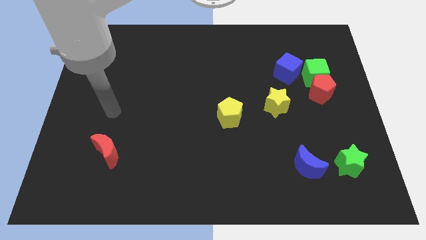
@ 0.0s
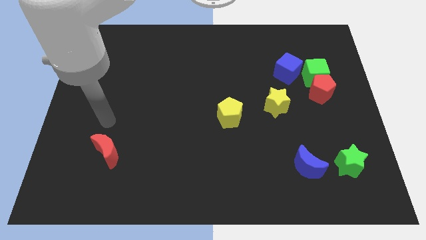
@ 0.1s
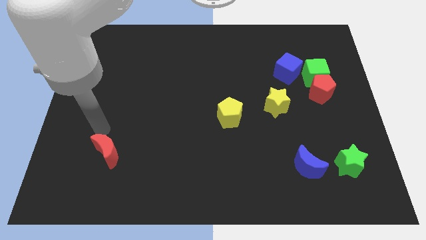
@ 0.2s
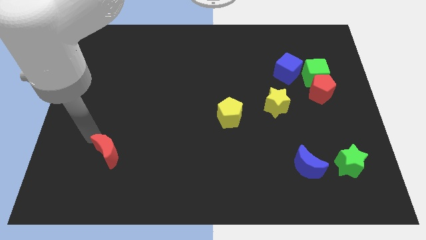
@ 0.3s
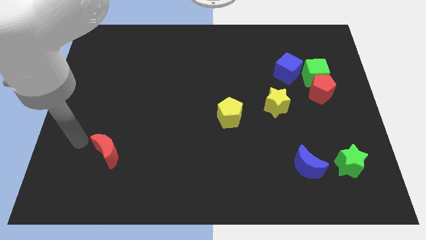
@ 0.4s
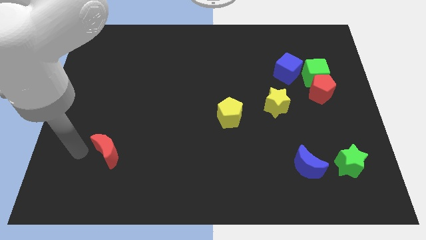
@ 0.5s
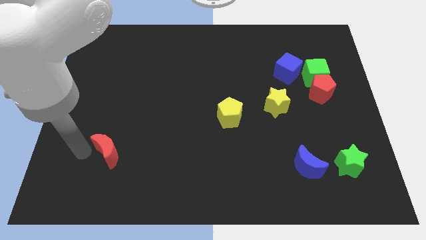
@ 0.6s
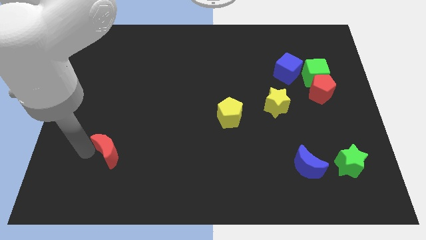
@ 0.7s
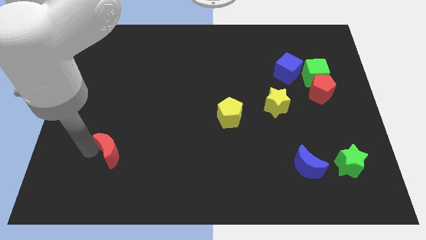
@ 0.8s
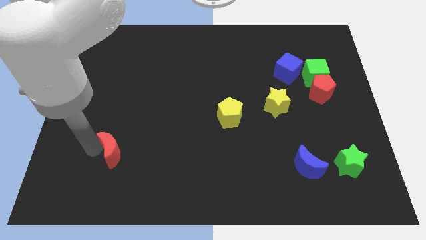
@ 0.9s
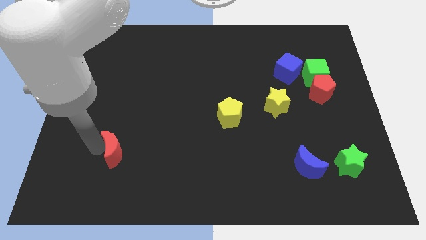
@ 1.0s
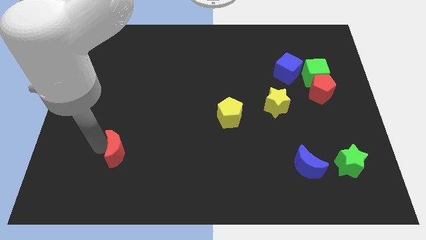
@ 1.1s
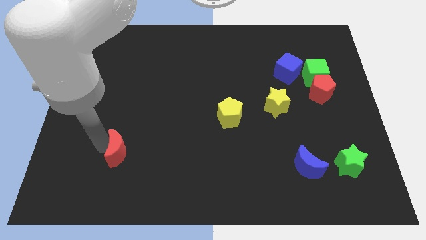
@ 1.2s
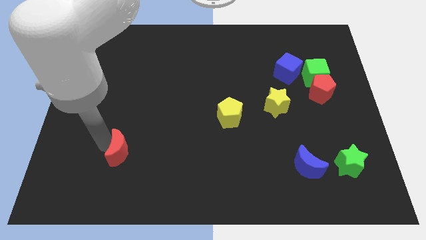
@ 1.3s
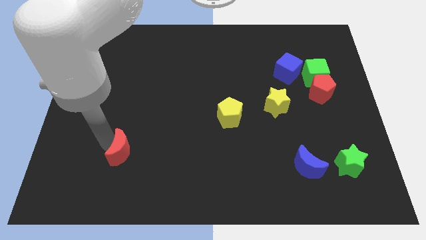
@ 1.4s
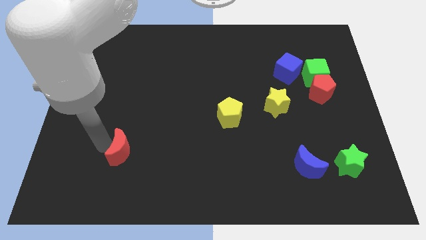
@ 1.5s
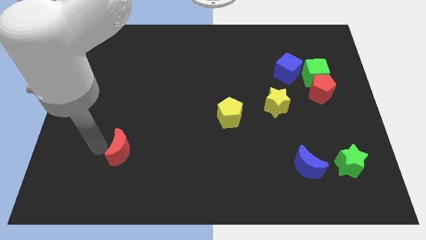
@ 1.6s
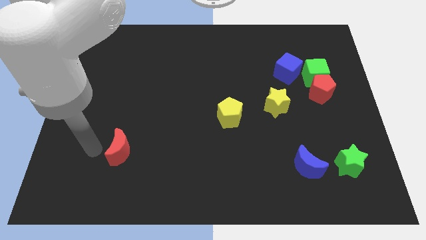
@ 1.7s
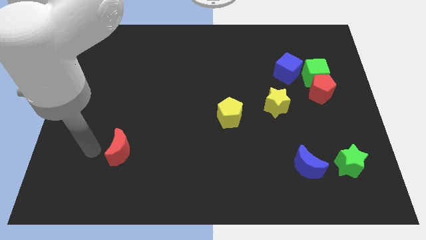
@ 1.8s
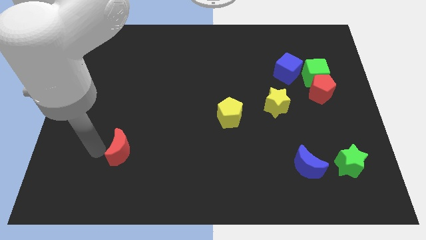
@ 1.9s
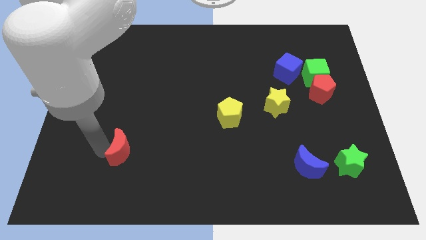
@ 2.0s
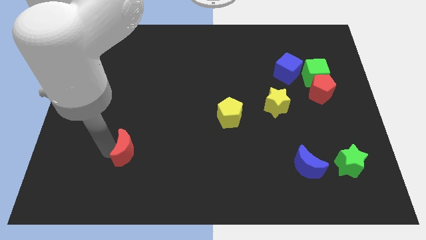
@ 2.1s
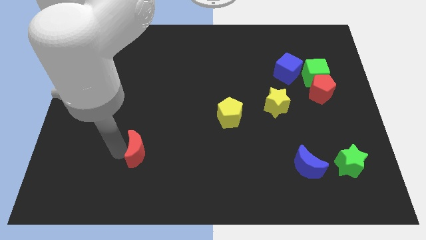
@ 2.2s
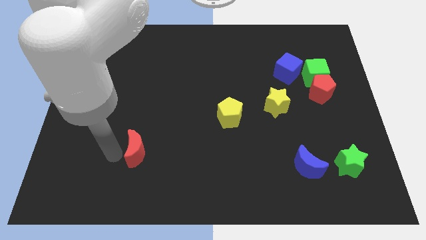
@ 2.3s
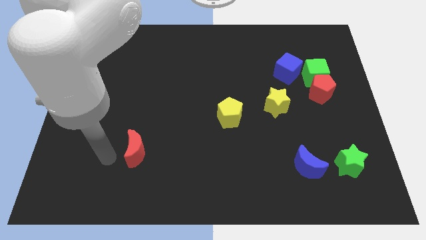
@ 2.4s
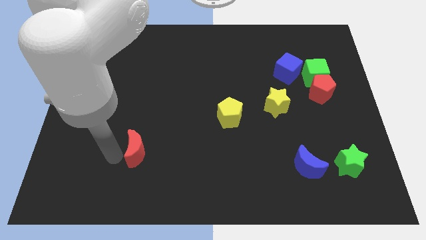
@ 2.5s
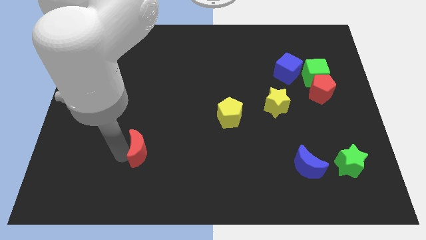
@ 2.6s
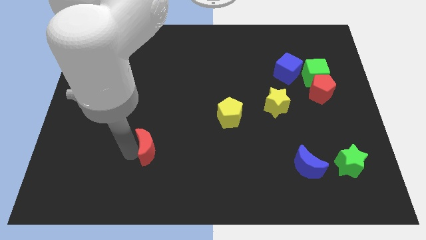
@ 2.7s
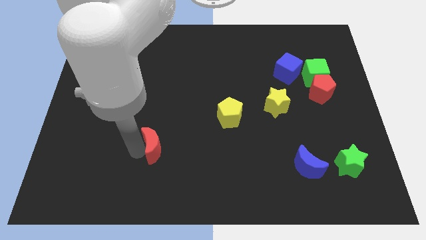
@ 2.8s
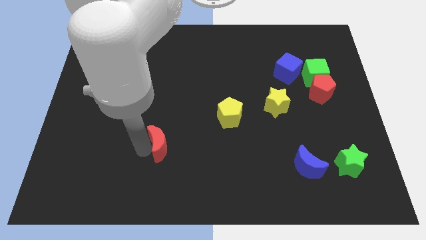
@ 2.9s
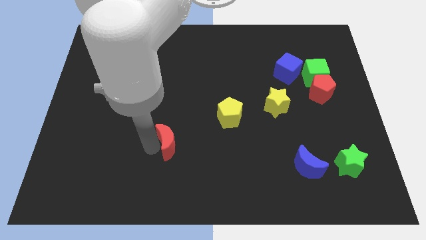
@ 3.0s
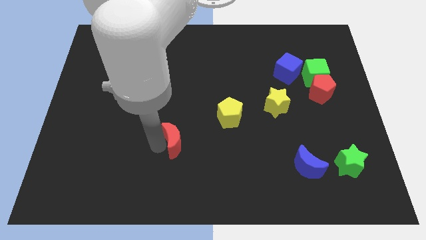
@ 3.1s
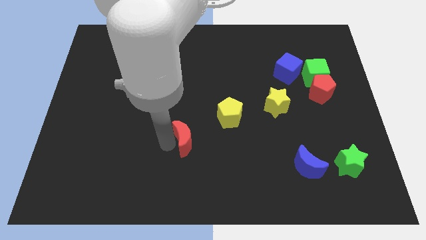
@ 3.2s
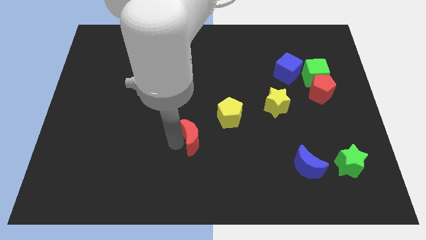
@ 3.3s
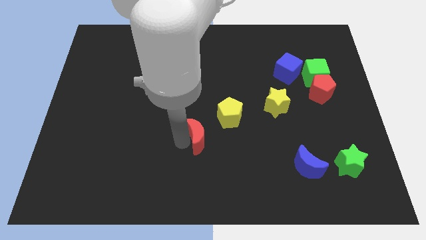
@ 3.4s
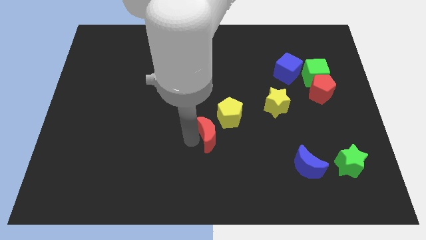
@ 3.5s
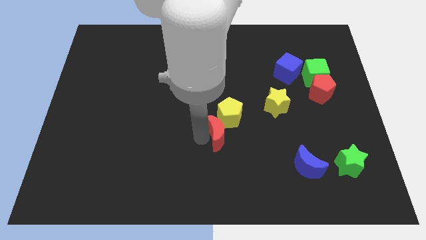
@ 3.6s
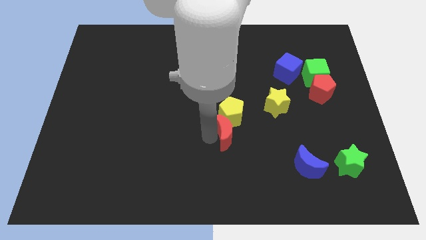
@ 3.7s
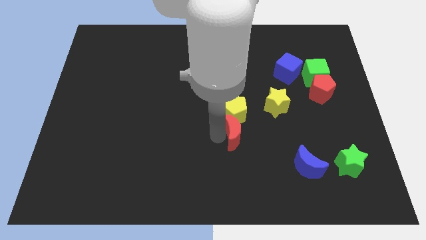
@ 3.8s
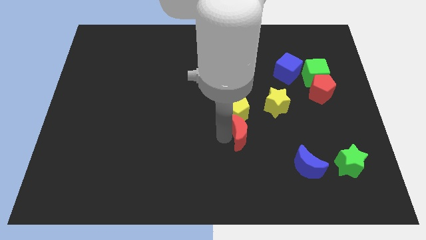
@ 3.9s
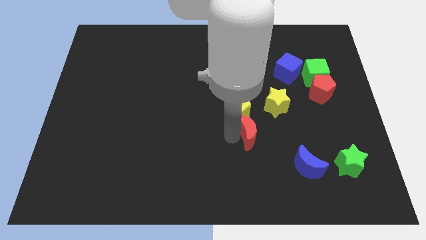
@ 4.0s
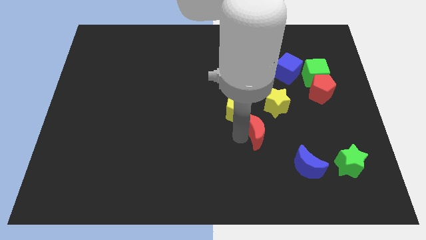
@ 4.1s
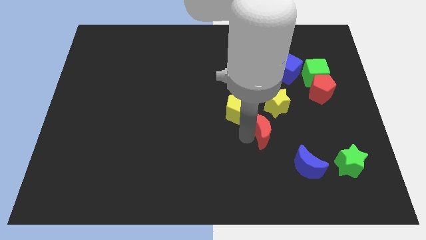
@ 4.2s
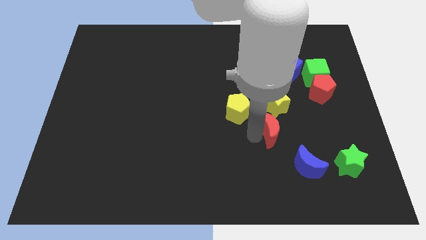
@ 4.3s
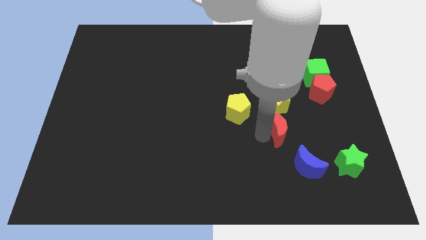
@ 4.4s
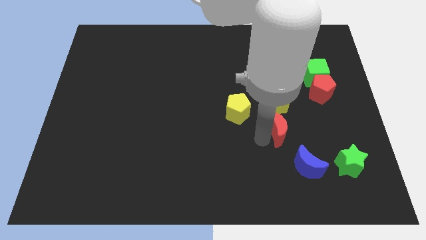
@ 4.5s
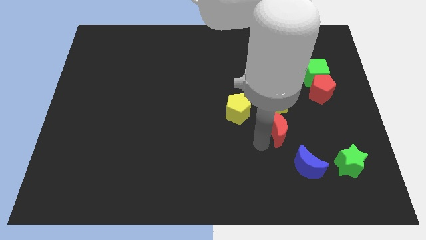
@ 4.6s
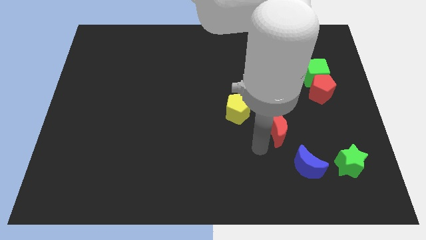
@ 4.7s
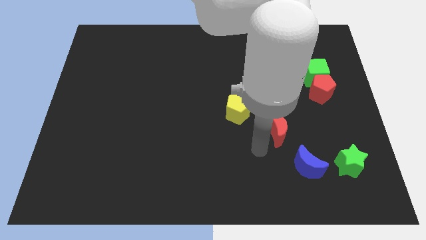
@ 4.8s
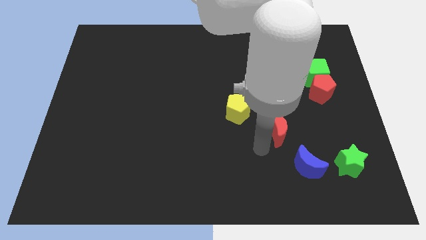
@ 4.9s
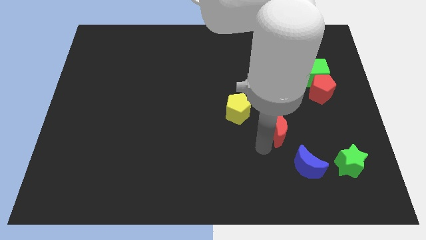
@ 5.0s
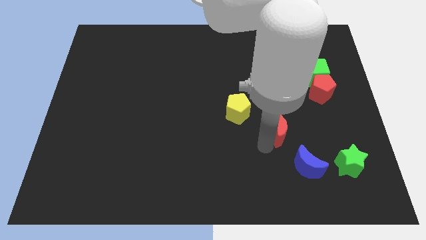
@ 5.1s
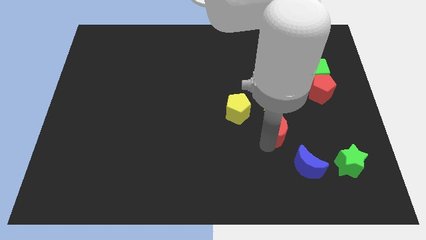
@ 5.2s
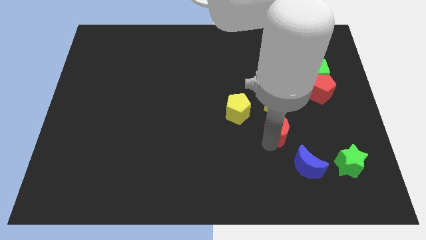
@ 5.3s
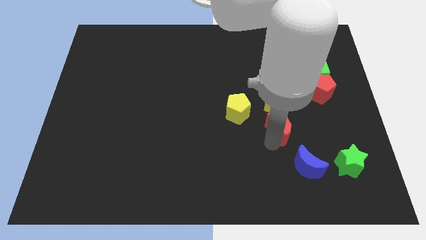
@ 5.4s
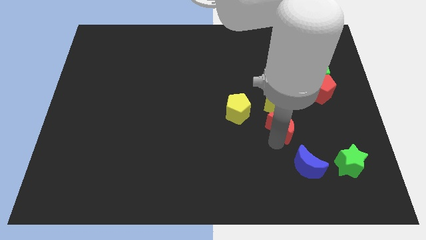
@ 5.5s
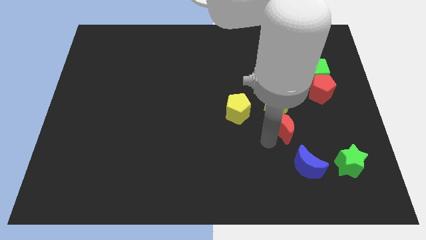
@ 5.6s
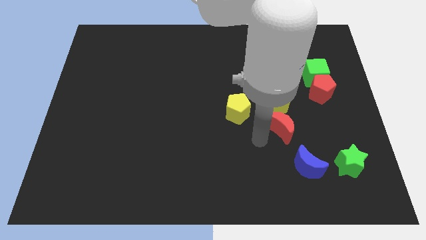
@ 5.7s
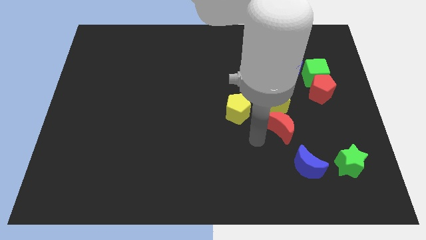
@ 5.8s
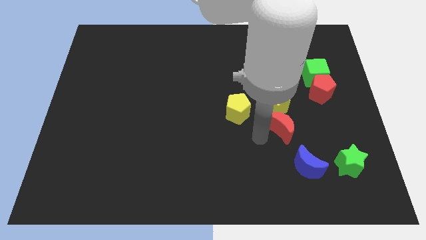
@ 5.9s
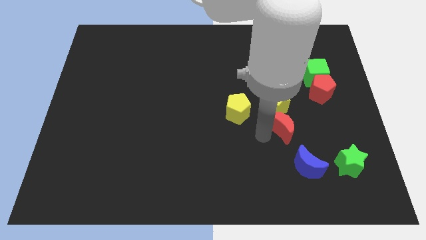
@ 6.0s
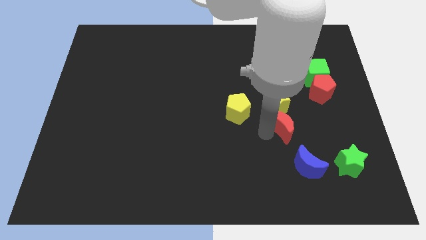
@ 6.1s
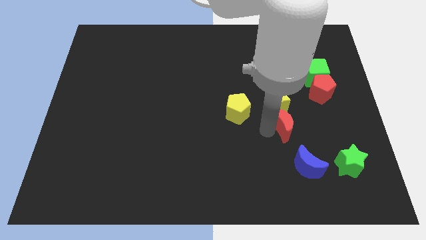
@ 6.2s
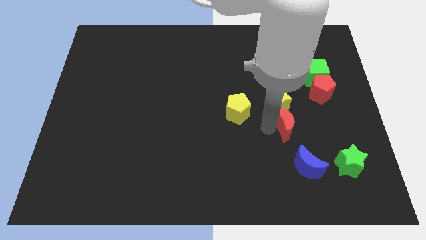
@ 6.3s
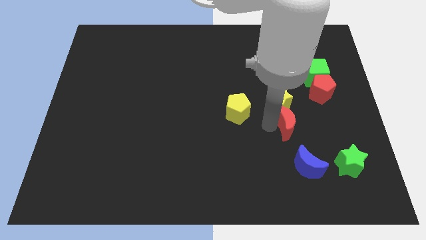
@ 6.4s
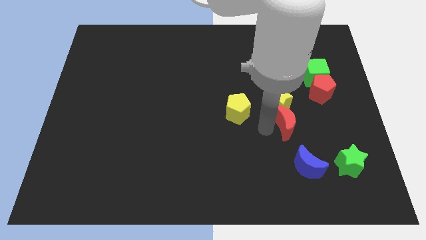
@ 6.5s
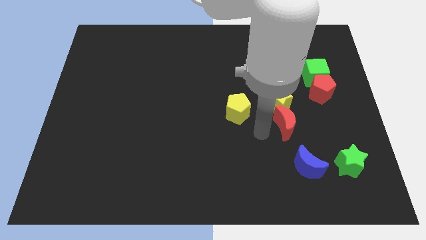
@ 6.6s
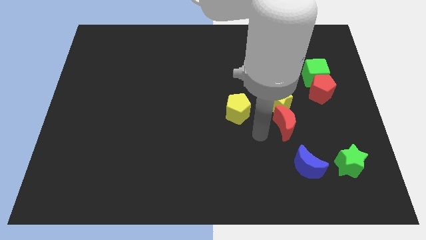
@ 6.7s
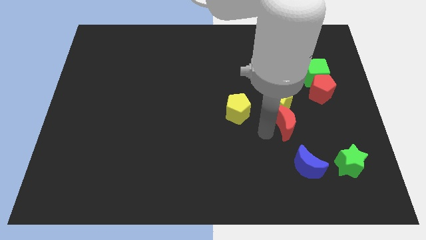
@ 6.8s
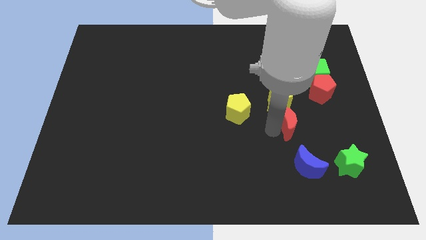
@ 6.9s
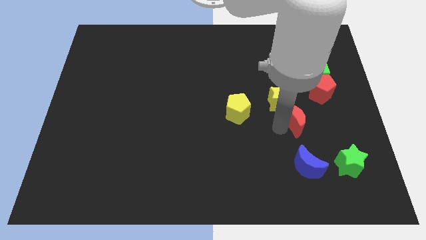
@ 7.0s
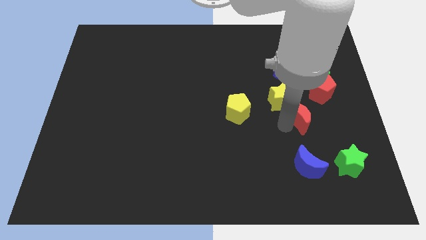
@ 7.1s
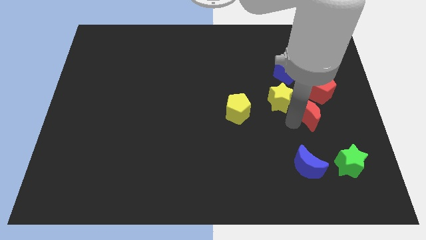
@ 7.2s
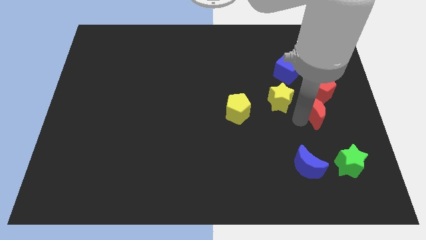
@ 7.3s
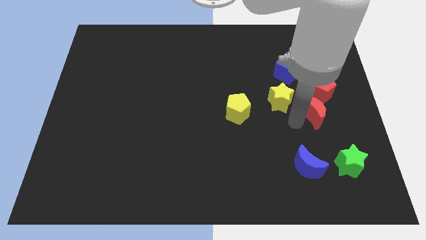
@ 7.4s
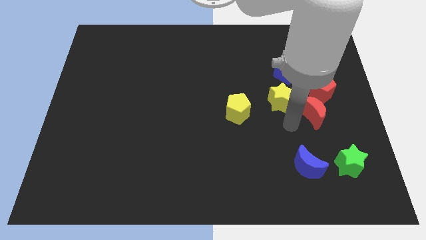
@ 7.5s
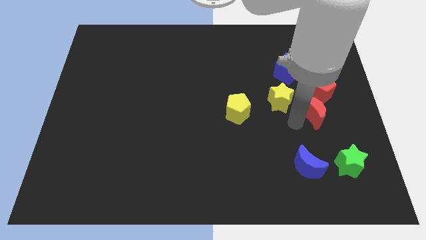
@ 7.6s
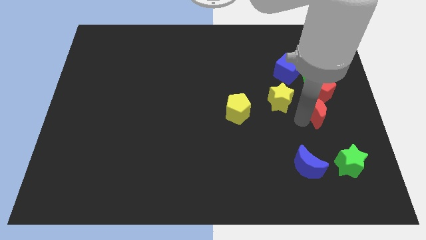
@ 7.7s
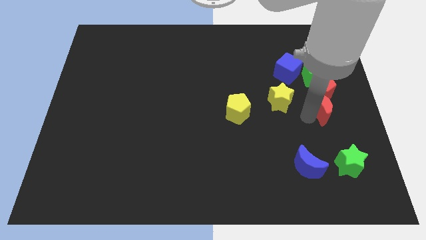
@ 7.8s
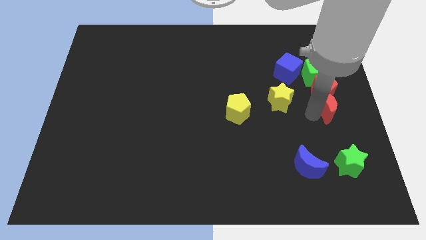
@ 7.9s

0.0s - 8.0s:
move the red moon to the center right
